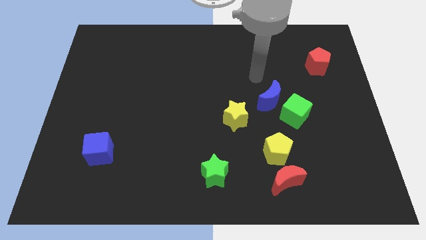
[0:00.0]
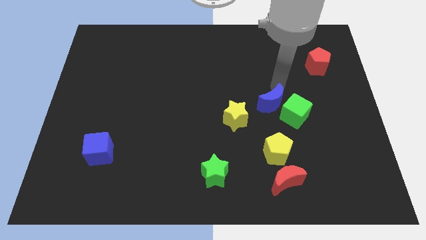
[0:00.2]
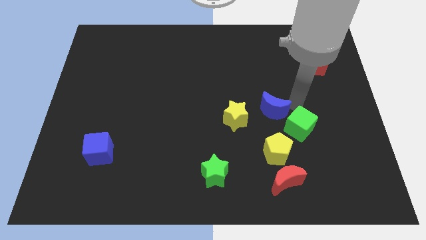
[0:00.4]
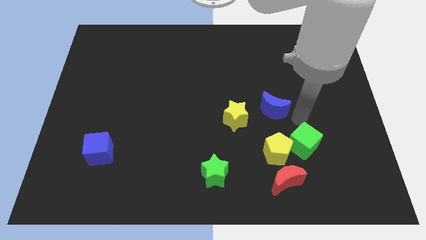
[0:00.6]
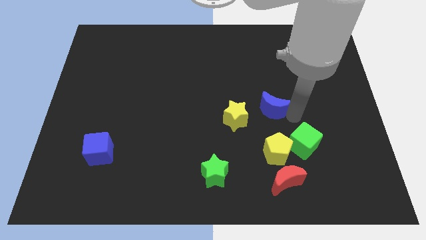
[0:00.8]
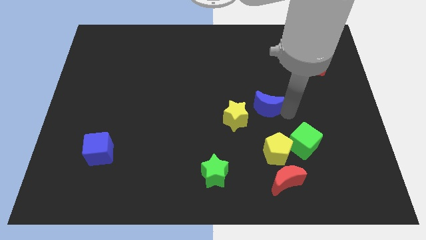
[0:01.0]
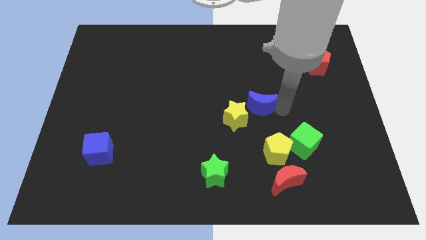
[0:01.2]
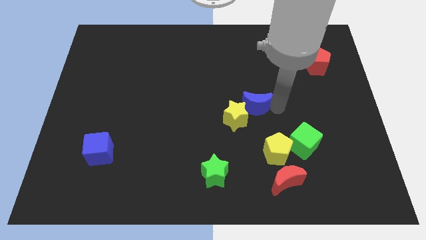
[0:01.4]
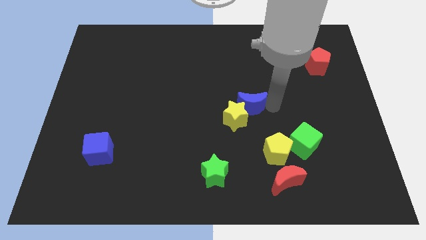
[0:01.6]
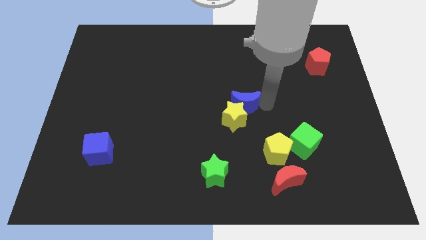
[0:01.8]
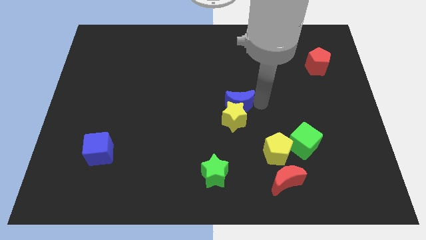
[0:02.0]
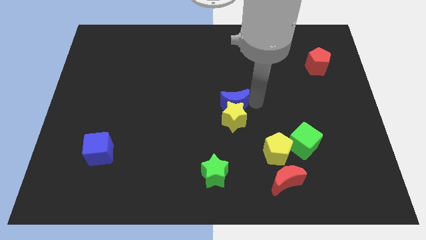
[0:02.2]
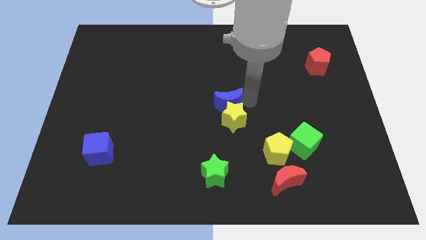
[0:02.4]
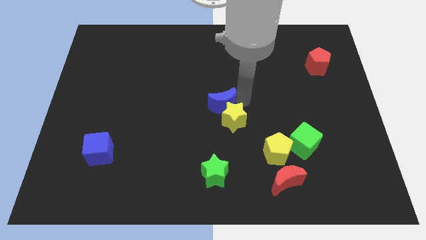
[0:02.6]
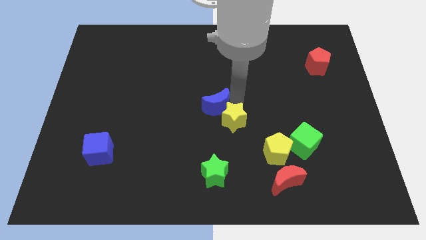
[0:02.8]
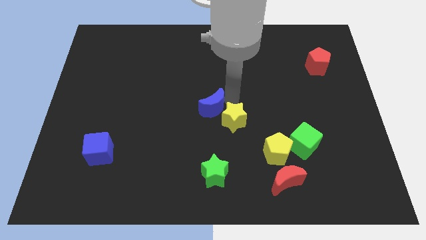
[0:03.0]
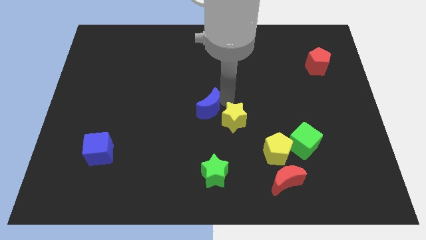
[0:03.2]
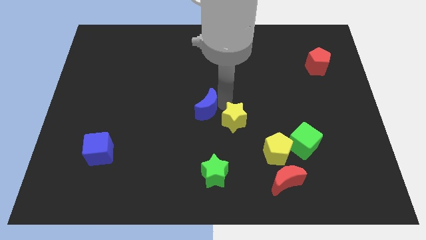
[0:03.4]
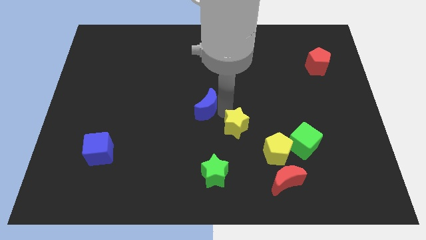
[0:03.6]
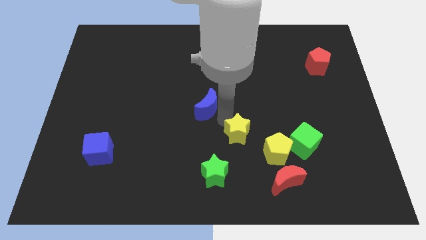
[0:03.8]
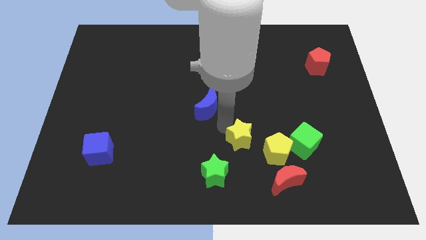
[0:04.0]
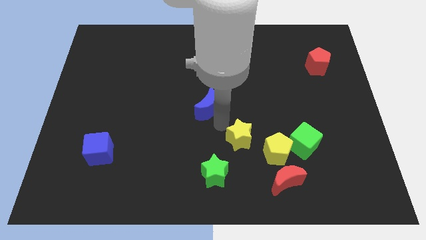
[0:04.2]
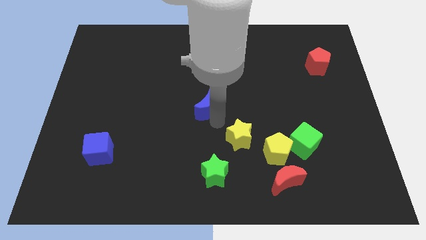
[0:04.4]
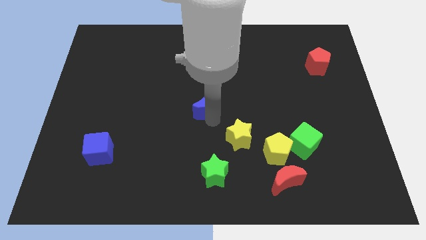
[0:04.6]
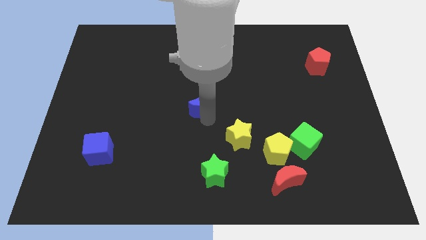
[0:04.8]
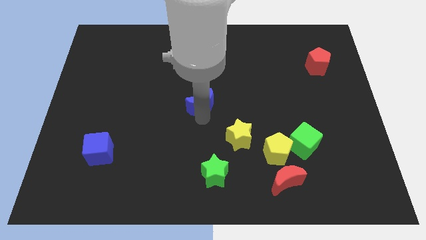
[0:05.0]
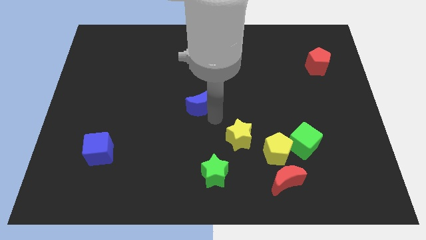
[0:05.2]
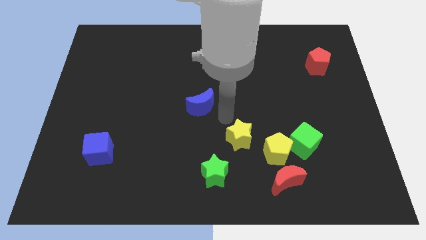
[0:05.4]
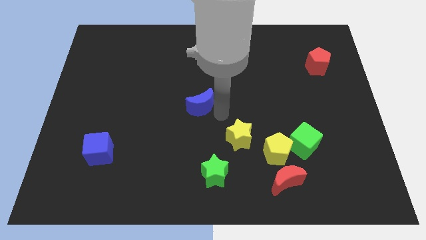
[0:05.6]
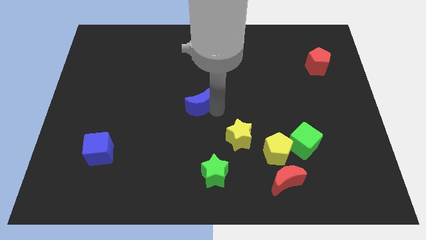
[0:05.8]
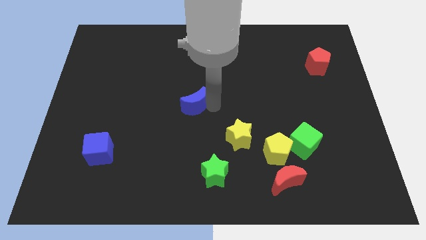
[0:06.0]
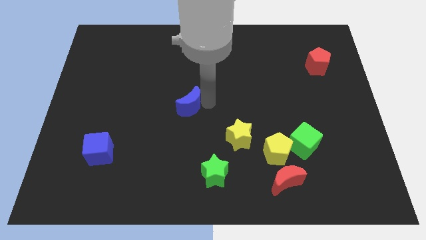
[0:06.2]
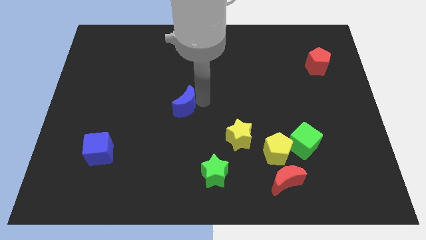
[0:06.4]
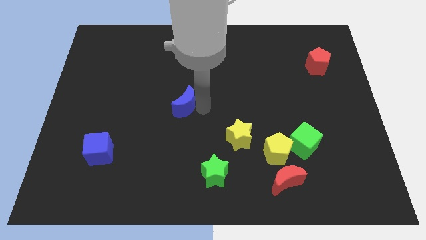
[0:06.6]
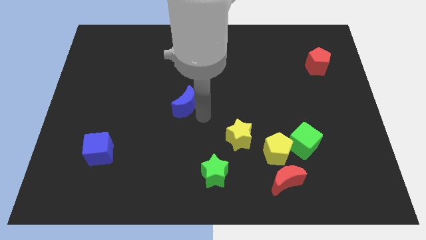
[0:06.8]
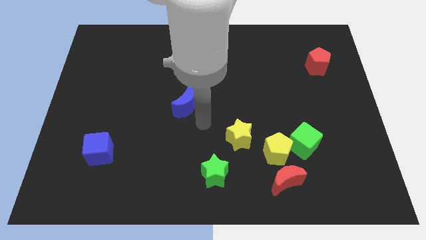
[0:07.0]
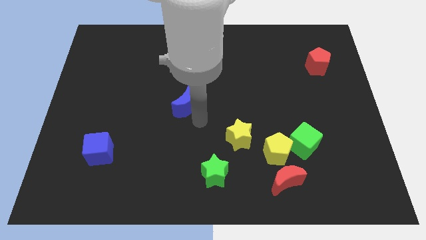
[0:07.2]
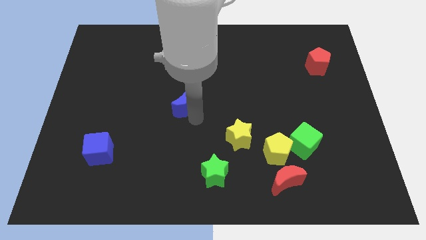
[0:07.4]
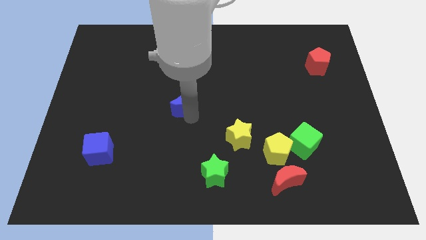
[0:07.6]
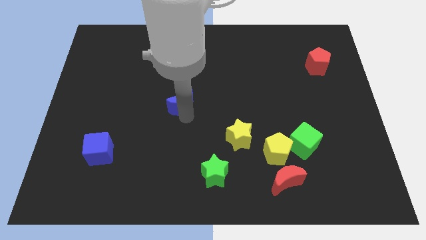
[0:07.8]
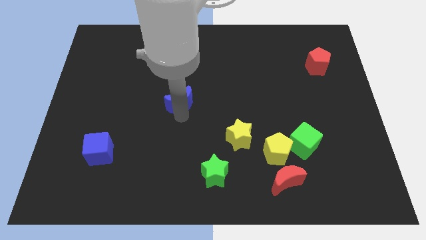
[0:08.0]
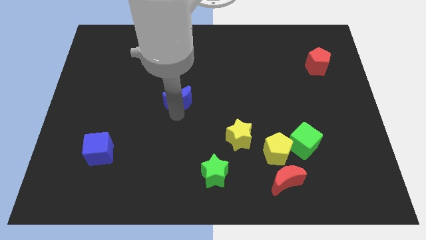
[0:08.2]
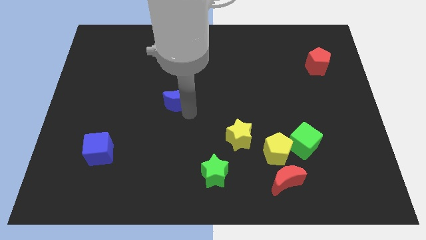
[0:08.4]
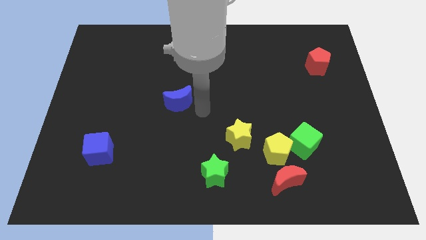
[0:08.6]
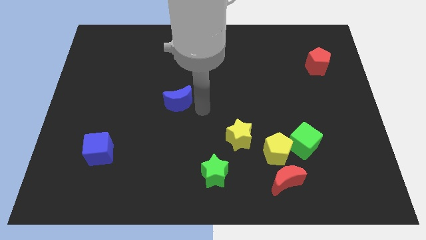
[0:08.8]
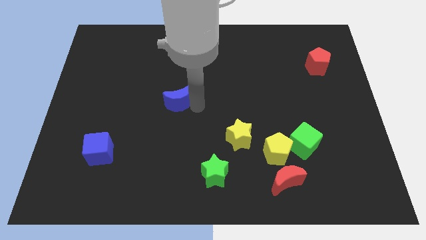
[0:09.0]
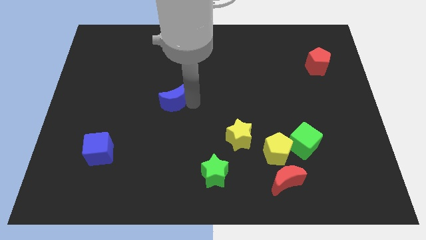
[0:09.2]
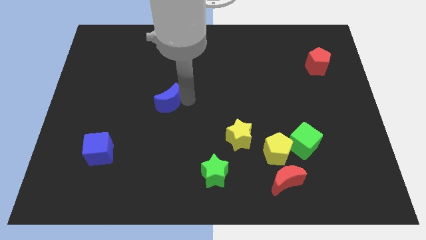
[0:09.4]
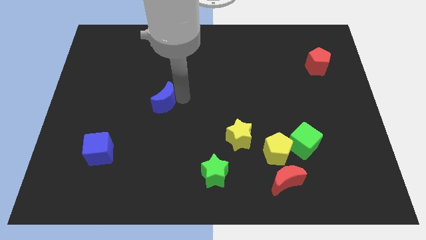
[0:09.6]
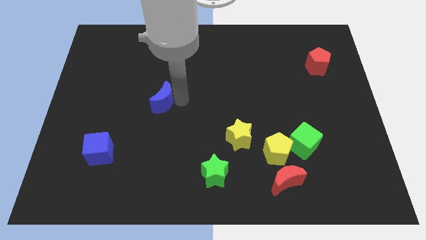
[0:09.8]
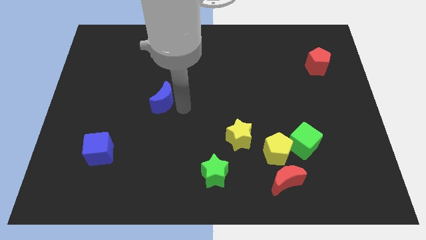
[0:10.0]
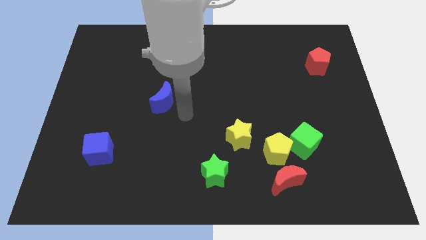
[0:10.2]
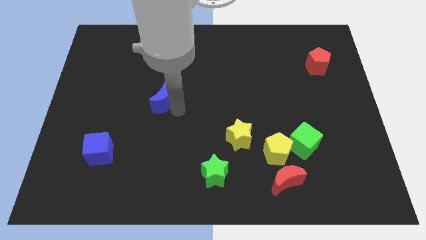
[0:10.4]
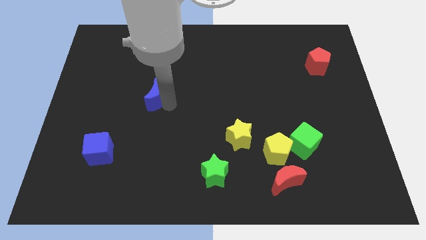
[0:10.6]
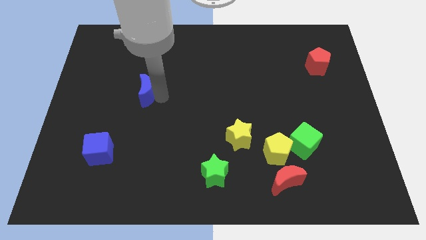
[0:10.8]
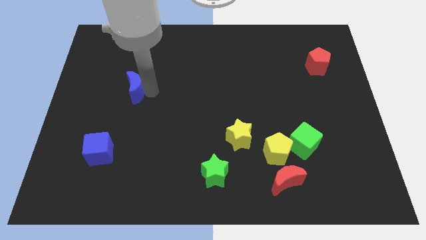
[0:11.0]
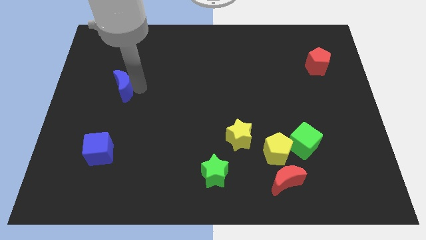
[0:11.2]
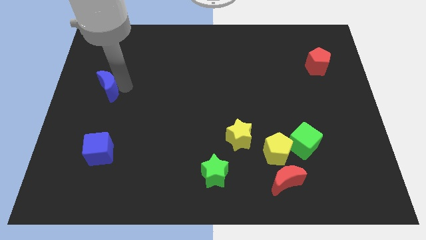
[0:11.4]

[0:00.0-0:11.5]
slide the blue moon to the center left

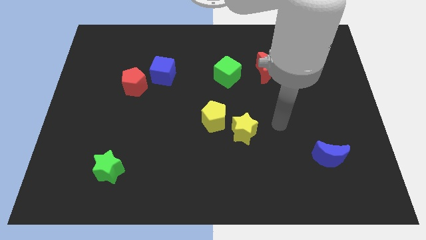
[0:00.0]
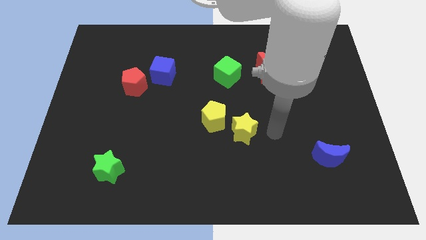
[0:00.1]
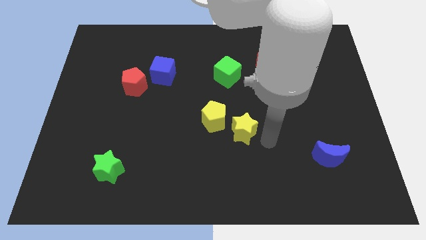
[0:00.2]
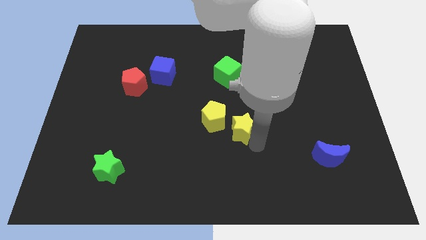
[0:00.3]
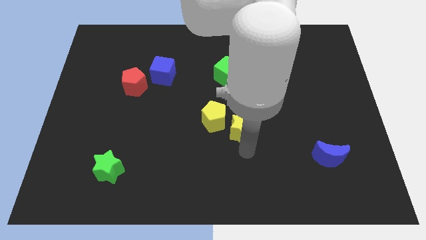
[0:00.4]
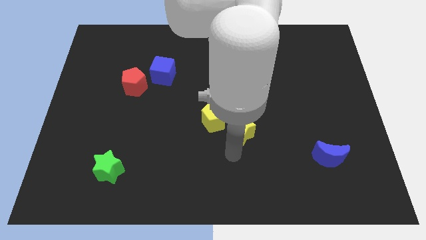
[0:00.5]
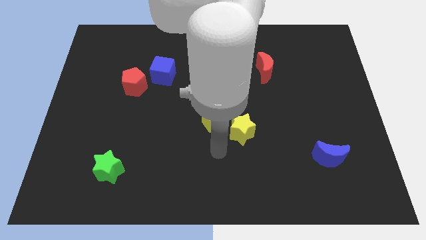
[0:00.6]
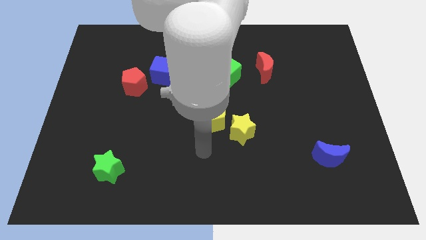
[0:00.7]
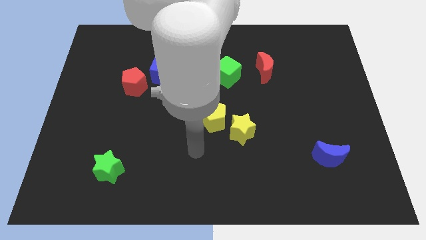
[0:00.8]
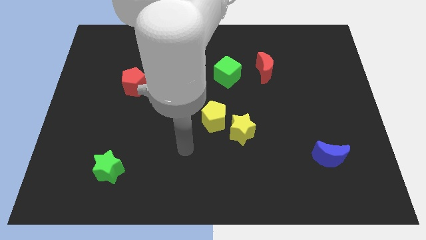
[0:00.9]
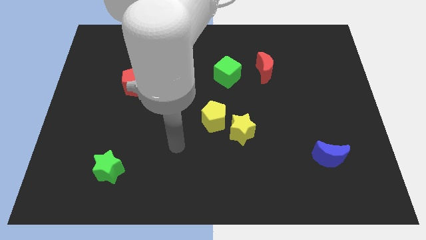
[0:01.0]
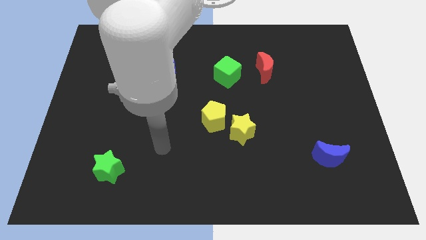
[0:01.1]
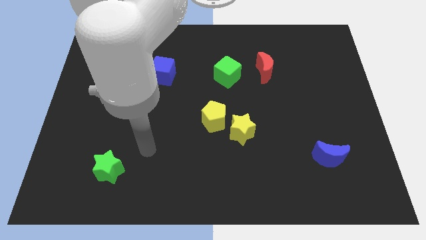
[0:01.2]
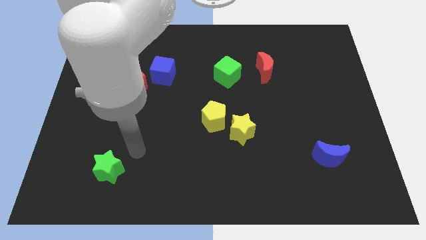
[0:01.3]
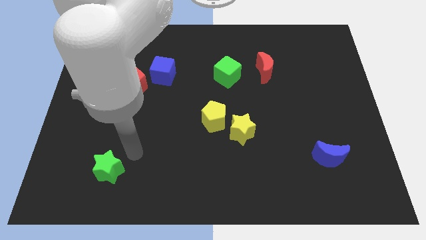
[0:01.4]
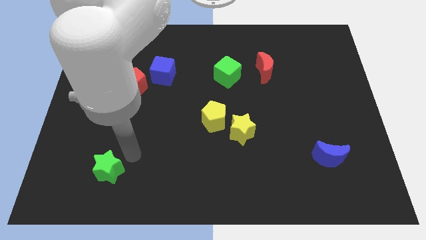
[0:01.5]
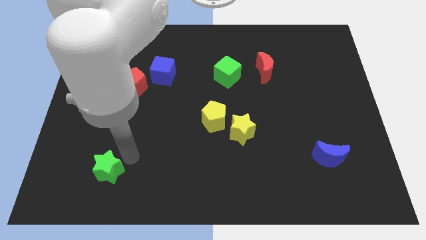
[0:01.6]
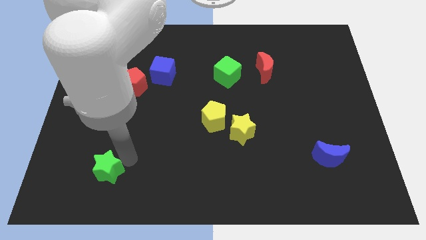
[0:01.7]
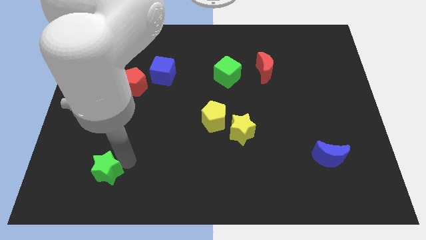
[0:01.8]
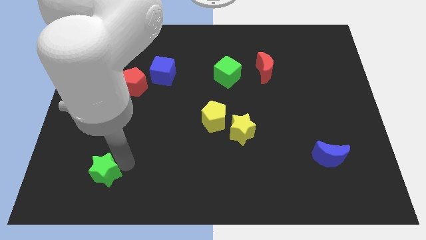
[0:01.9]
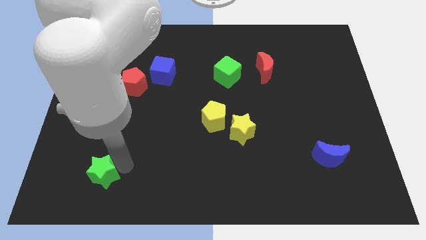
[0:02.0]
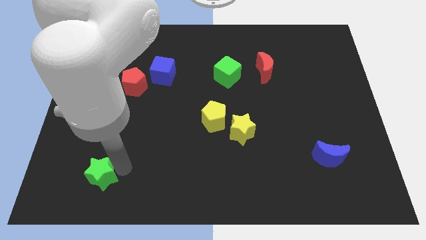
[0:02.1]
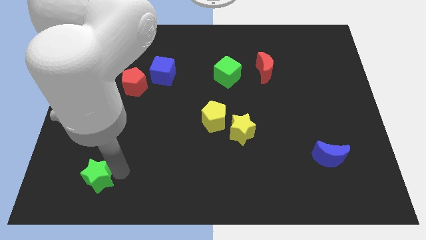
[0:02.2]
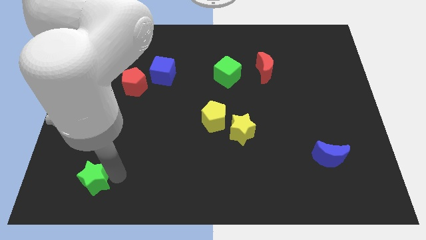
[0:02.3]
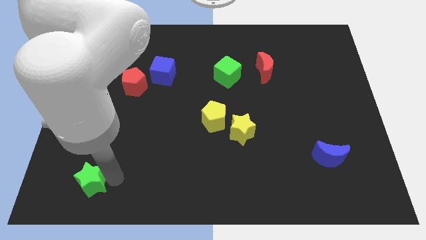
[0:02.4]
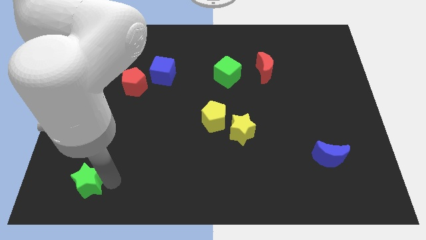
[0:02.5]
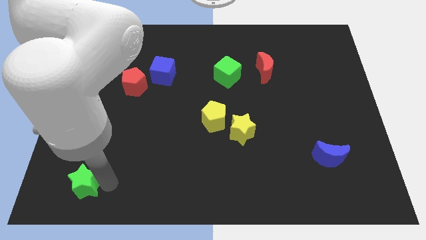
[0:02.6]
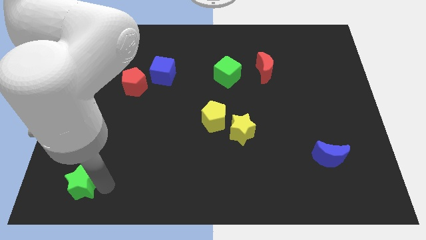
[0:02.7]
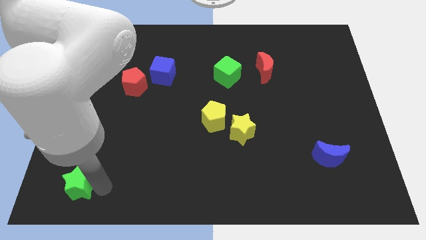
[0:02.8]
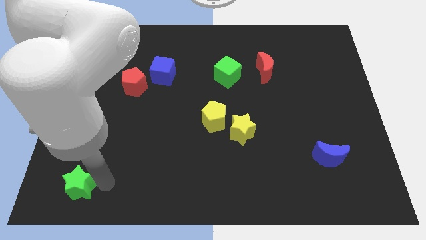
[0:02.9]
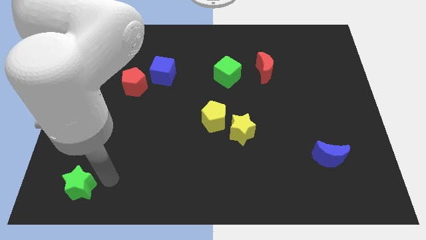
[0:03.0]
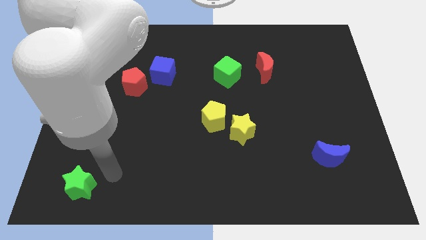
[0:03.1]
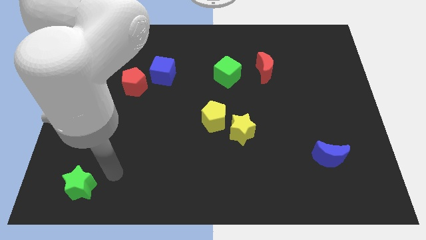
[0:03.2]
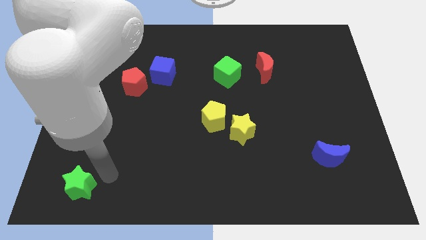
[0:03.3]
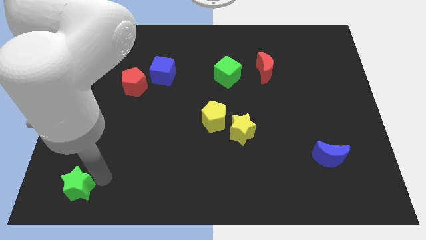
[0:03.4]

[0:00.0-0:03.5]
put the green star to the bottom left of the board
